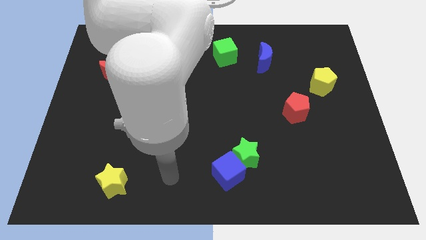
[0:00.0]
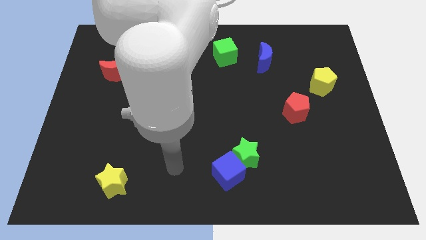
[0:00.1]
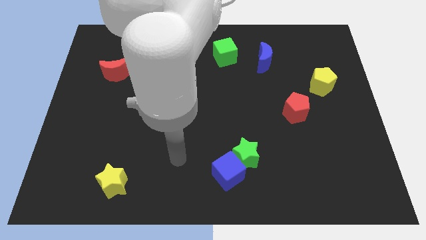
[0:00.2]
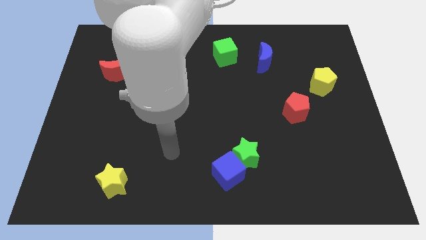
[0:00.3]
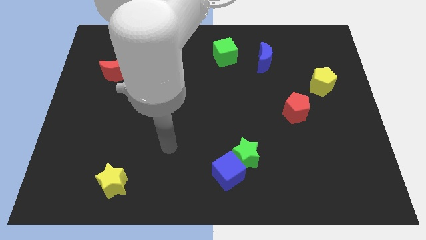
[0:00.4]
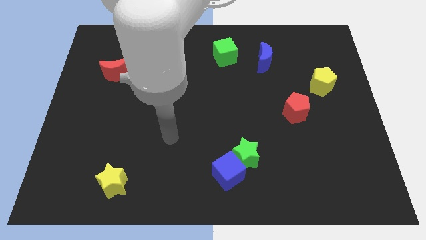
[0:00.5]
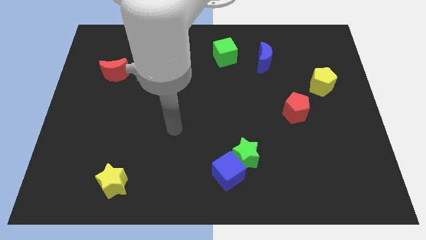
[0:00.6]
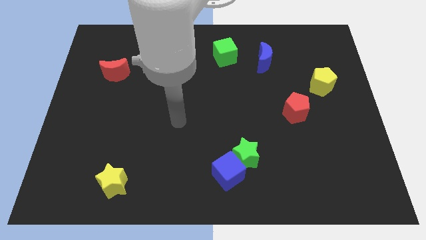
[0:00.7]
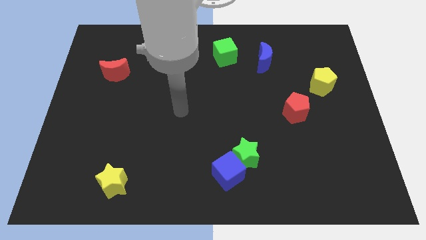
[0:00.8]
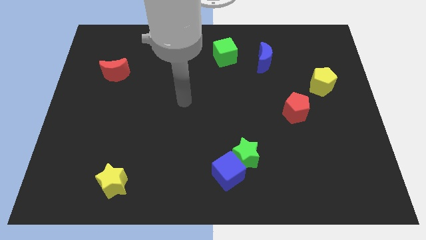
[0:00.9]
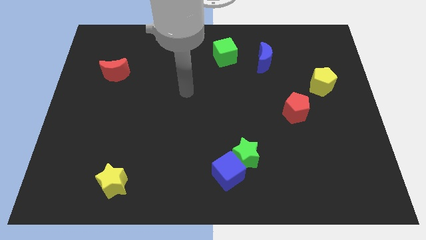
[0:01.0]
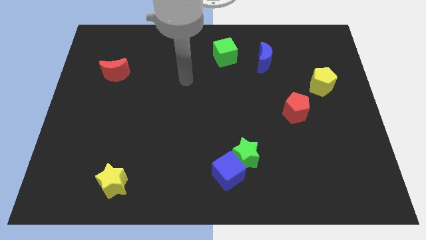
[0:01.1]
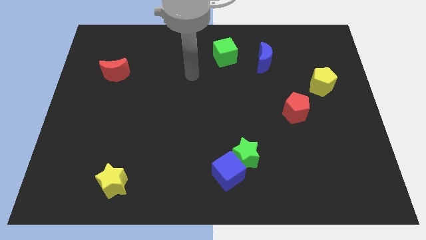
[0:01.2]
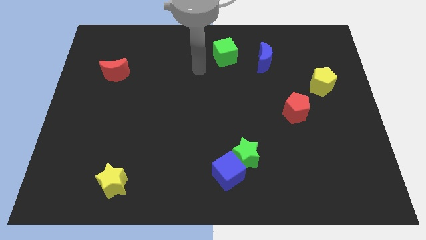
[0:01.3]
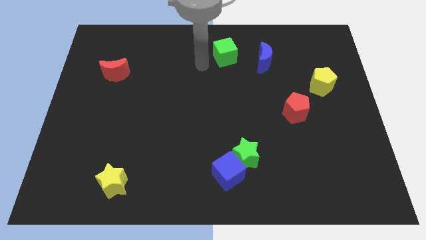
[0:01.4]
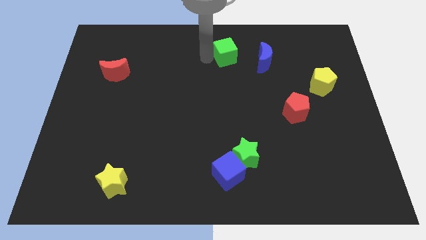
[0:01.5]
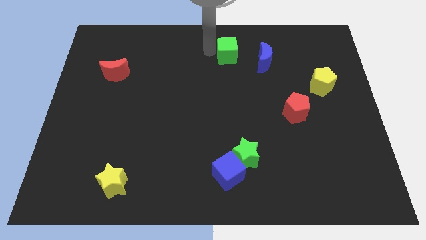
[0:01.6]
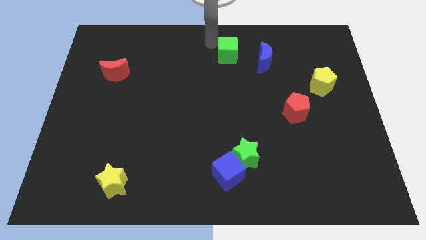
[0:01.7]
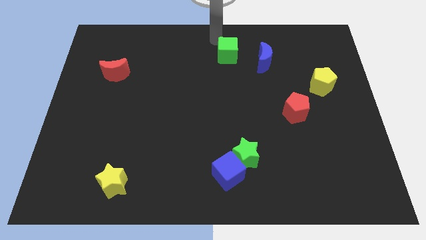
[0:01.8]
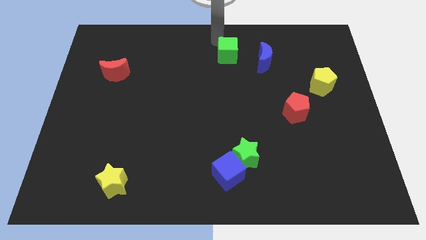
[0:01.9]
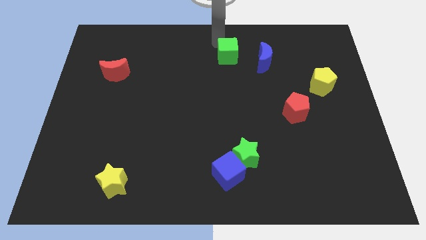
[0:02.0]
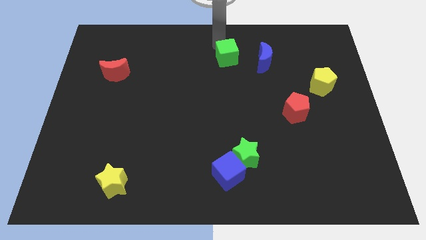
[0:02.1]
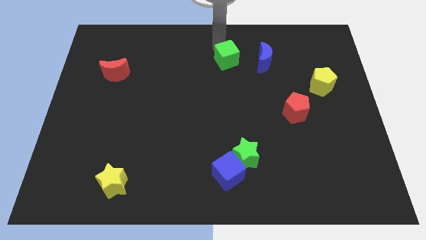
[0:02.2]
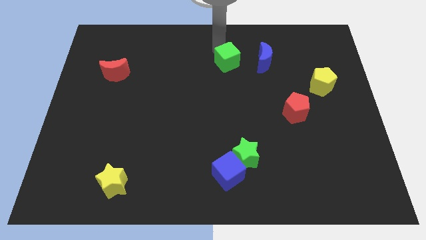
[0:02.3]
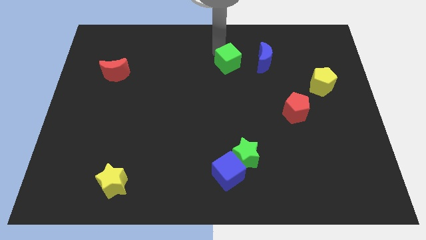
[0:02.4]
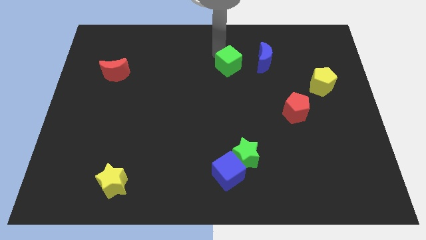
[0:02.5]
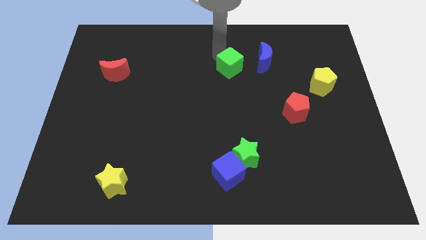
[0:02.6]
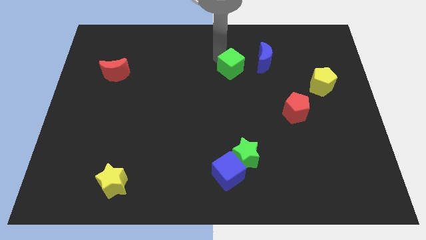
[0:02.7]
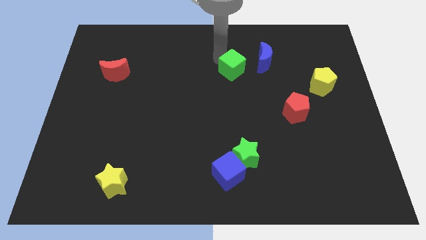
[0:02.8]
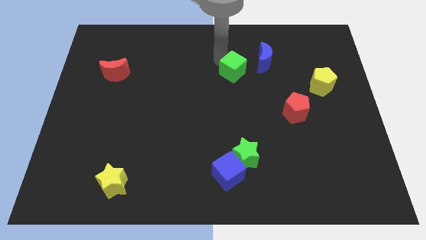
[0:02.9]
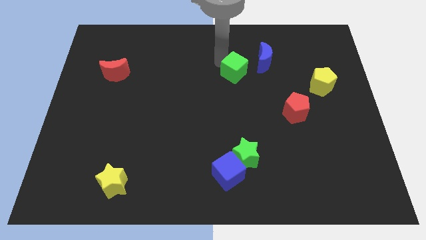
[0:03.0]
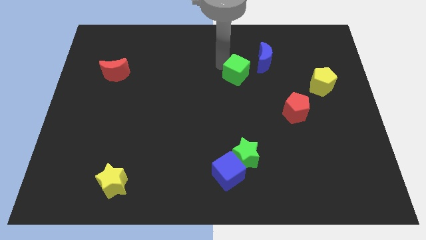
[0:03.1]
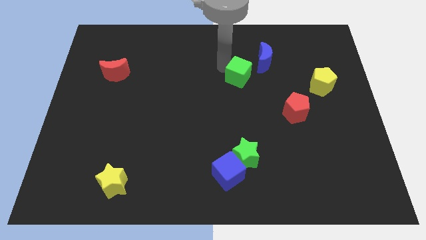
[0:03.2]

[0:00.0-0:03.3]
slightly slide the green cube down and right diagonally

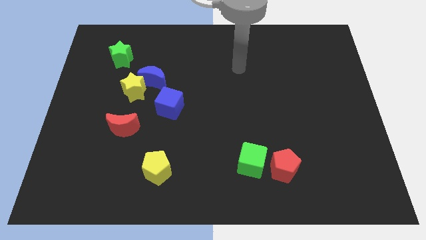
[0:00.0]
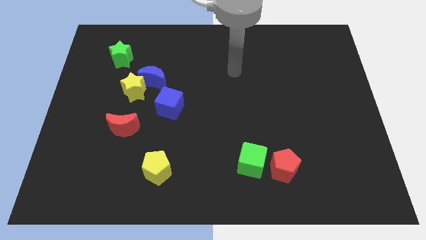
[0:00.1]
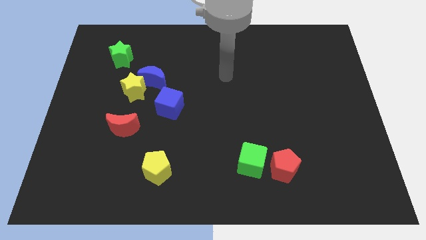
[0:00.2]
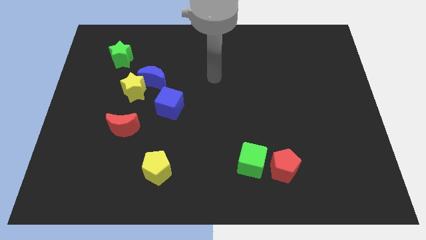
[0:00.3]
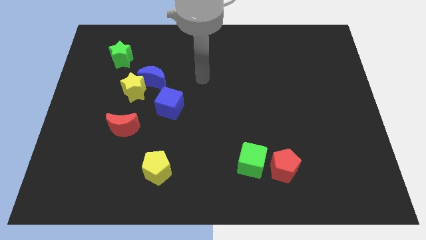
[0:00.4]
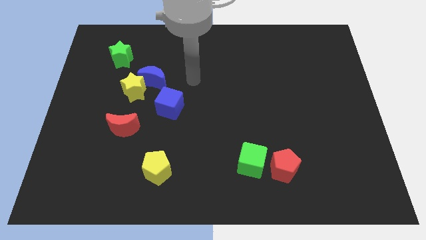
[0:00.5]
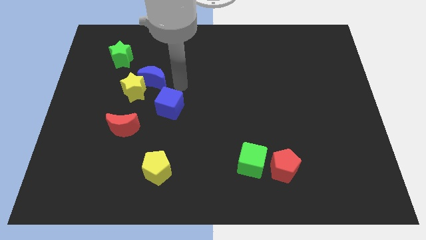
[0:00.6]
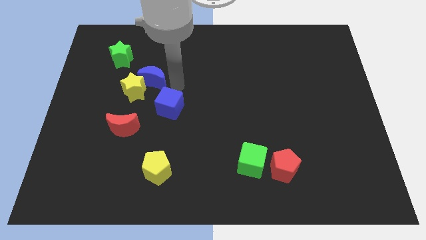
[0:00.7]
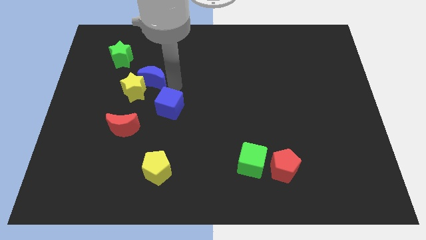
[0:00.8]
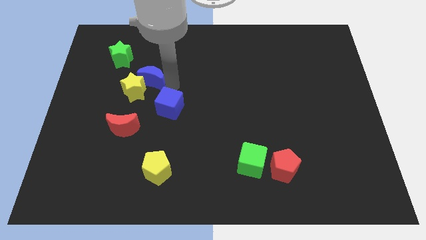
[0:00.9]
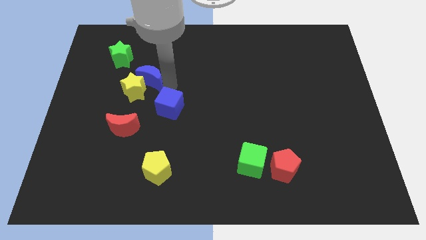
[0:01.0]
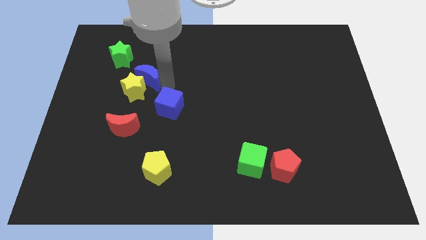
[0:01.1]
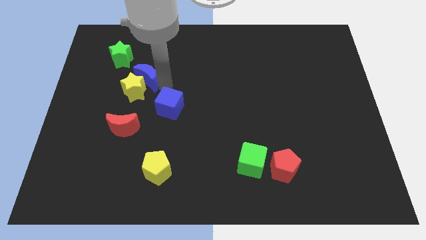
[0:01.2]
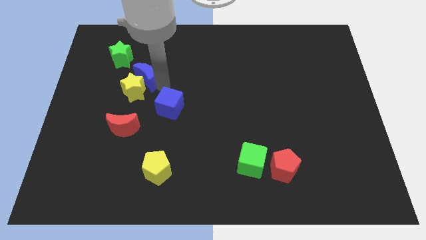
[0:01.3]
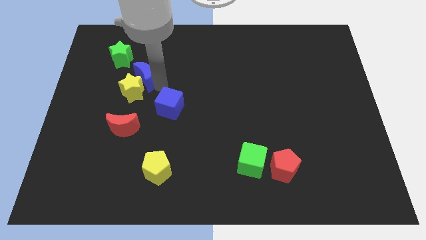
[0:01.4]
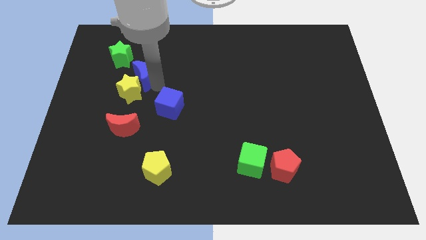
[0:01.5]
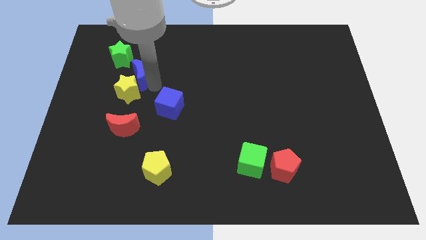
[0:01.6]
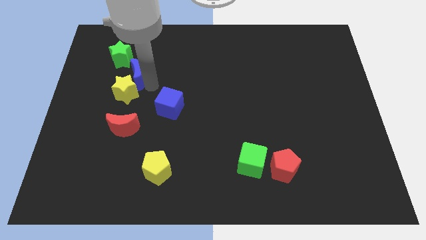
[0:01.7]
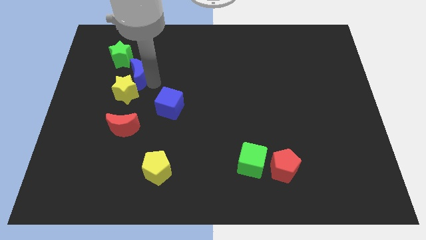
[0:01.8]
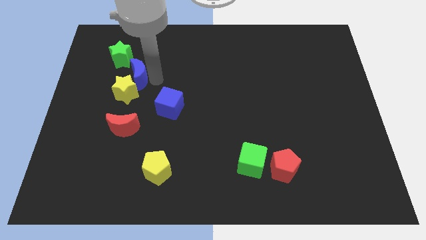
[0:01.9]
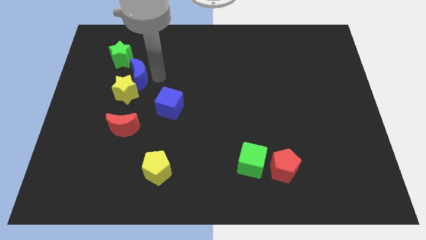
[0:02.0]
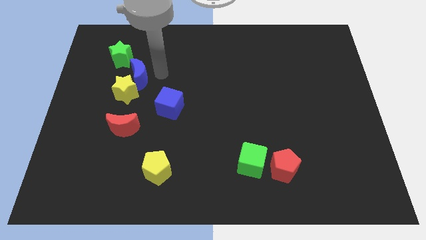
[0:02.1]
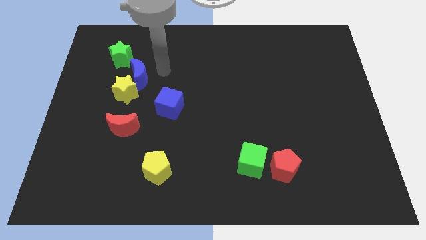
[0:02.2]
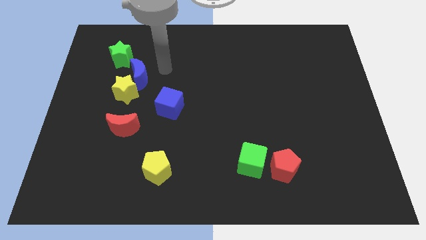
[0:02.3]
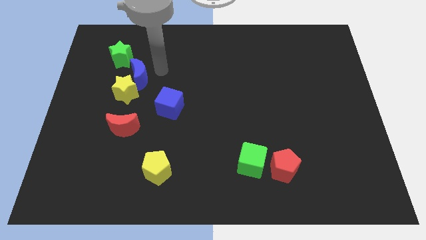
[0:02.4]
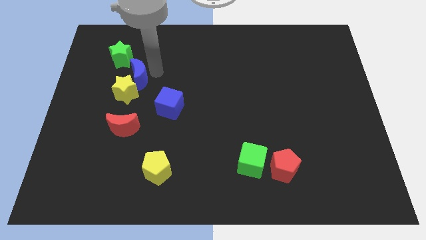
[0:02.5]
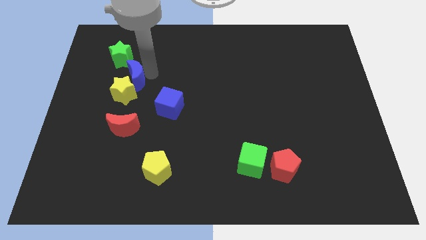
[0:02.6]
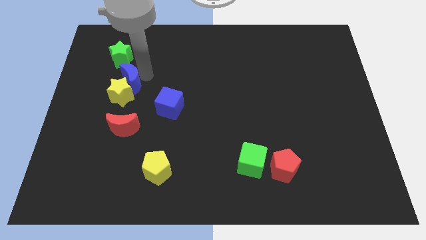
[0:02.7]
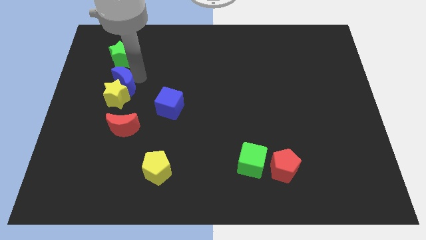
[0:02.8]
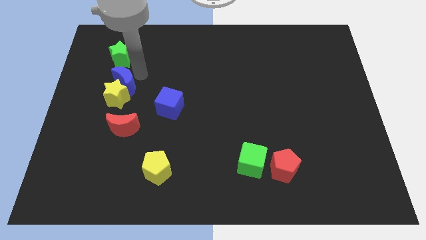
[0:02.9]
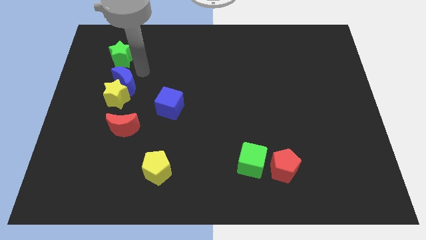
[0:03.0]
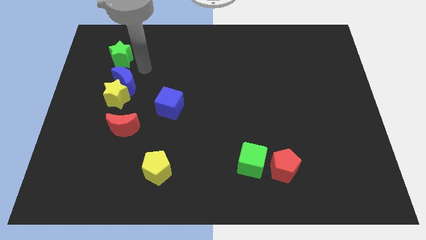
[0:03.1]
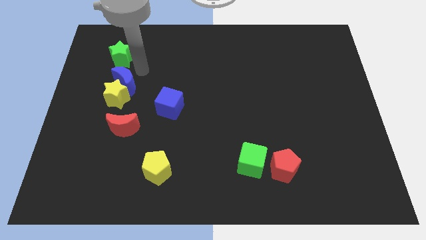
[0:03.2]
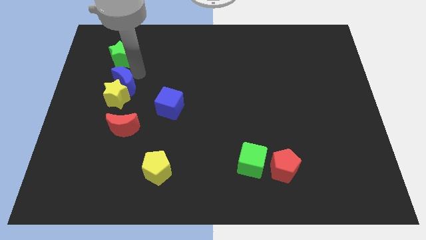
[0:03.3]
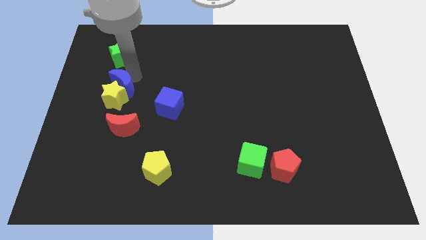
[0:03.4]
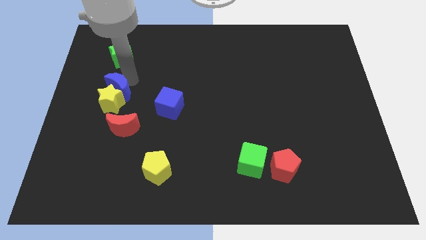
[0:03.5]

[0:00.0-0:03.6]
slide the blue moon downwards and then left a bit

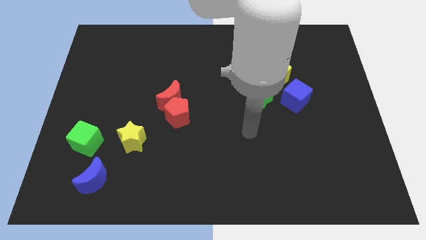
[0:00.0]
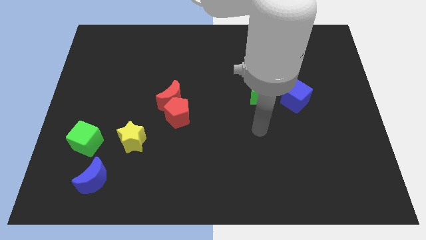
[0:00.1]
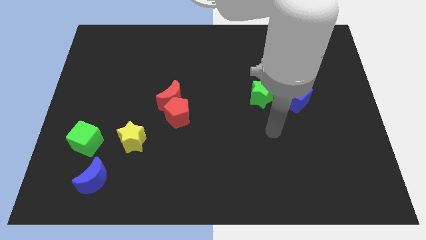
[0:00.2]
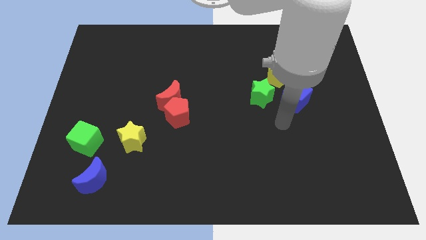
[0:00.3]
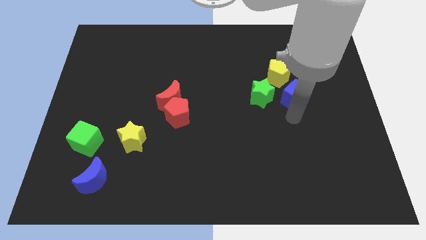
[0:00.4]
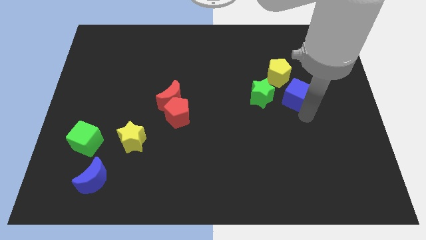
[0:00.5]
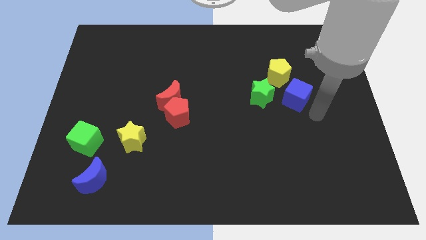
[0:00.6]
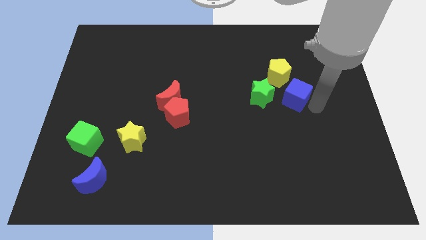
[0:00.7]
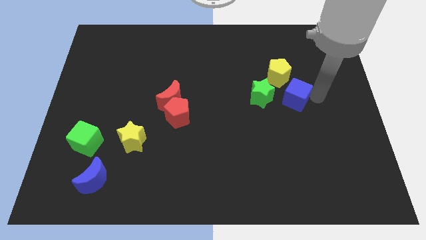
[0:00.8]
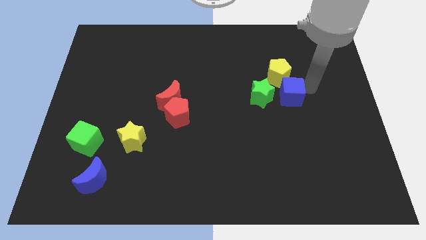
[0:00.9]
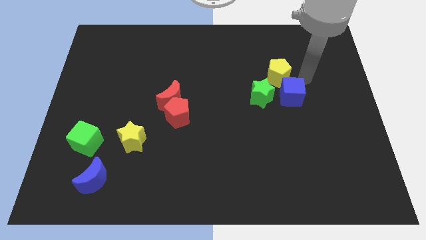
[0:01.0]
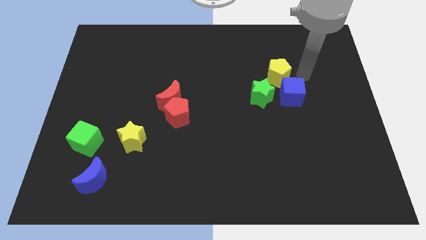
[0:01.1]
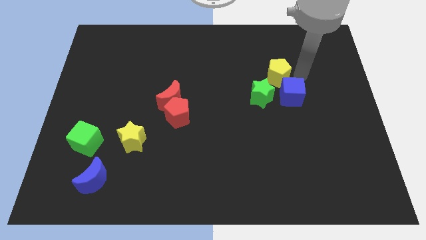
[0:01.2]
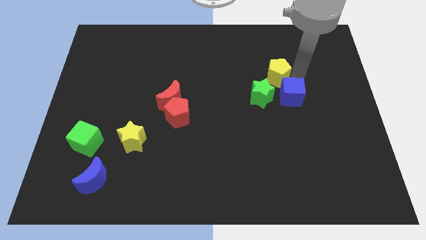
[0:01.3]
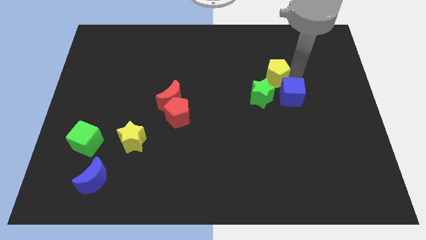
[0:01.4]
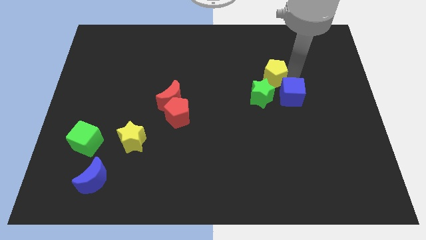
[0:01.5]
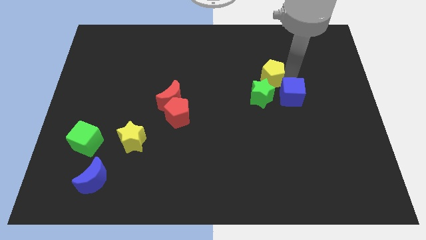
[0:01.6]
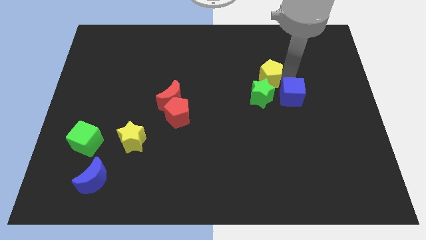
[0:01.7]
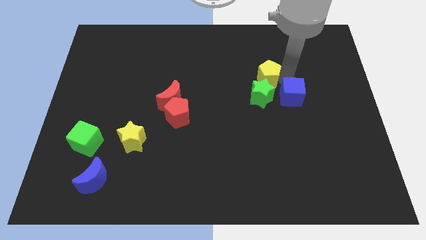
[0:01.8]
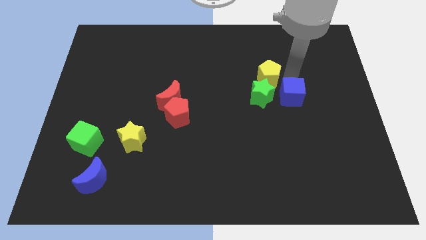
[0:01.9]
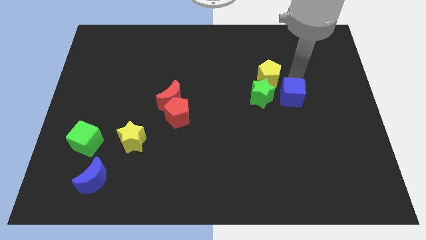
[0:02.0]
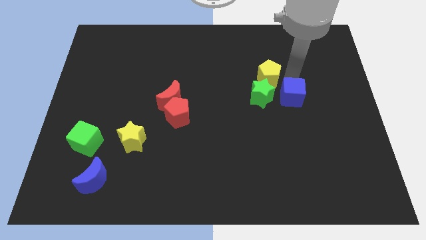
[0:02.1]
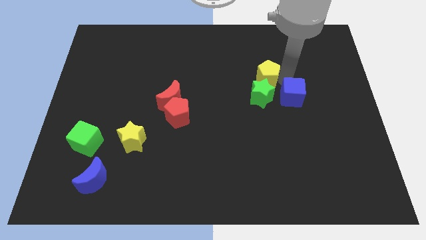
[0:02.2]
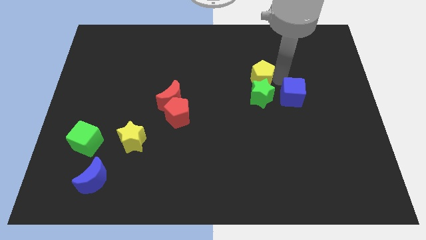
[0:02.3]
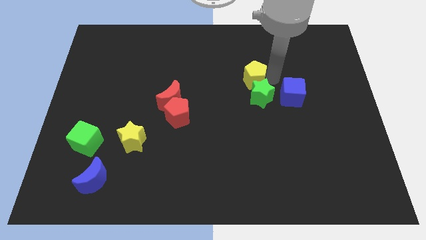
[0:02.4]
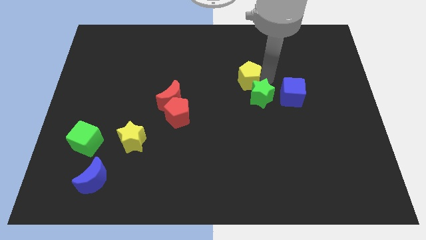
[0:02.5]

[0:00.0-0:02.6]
slightly move the yellow pentagon to the left
